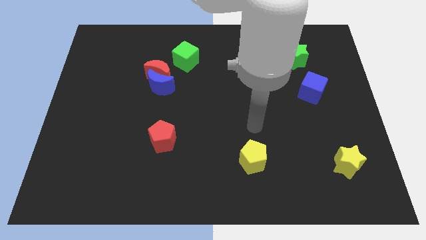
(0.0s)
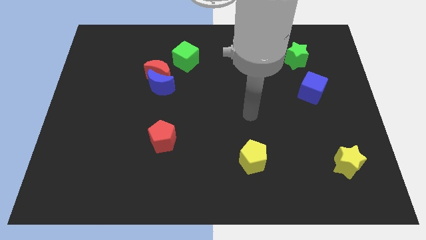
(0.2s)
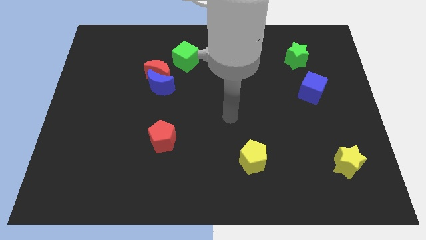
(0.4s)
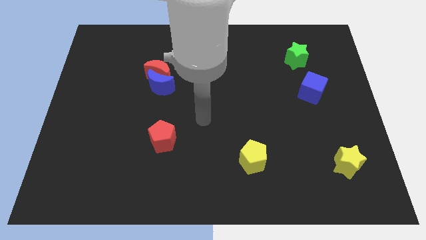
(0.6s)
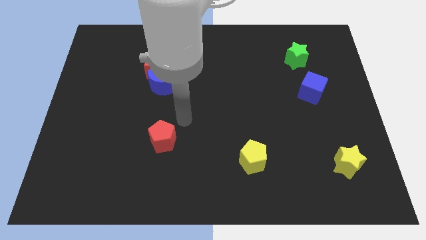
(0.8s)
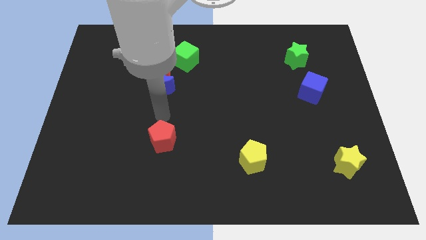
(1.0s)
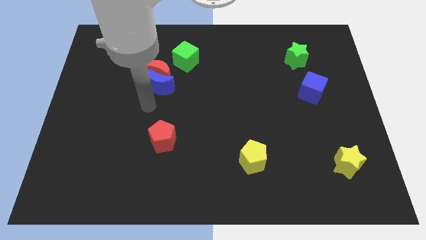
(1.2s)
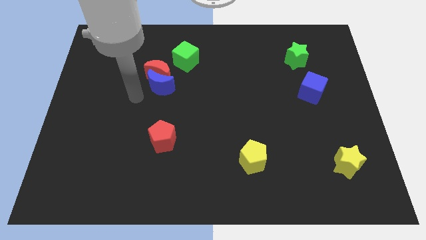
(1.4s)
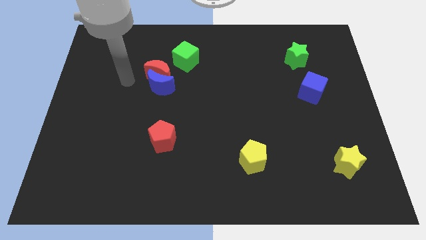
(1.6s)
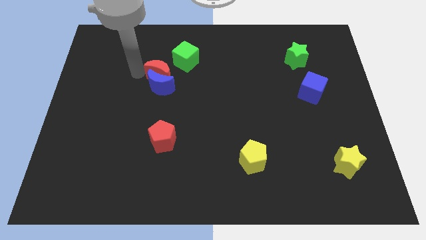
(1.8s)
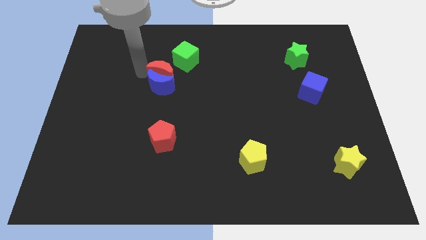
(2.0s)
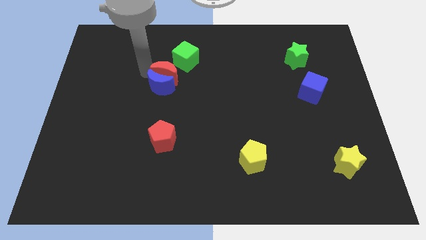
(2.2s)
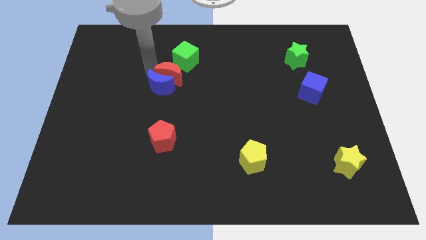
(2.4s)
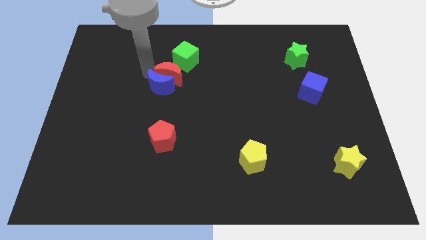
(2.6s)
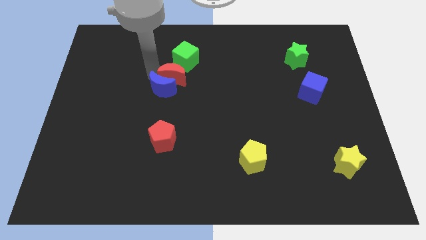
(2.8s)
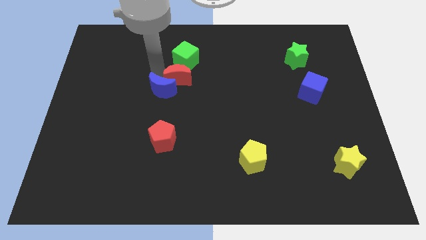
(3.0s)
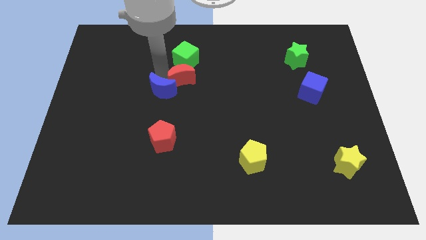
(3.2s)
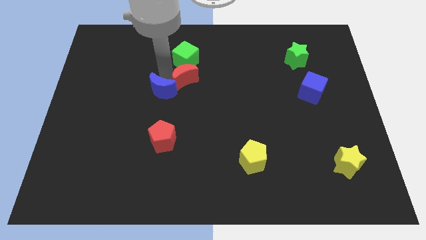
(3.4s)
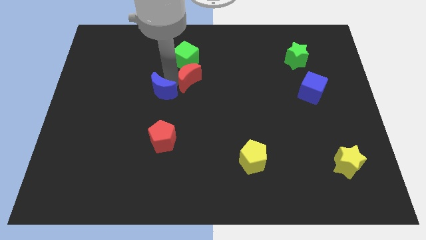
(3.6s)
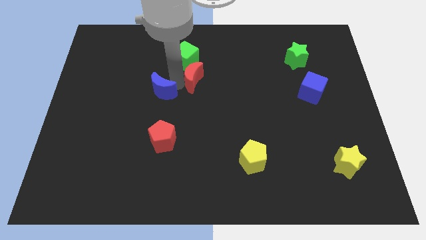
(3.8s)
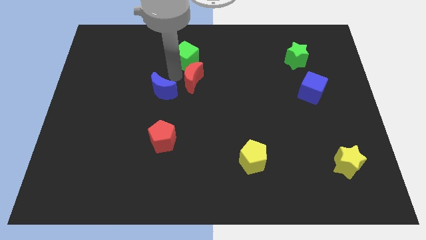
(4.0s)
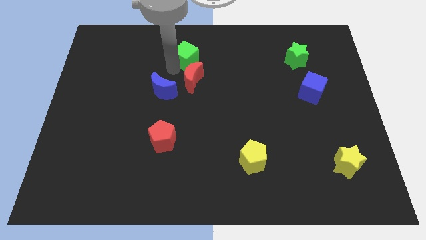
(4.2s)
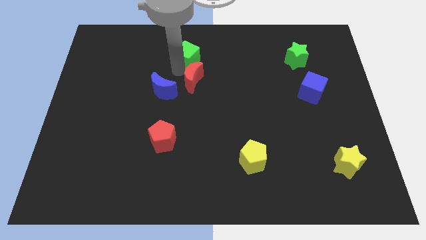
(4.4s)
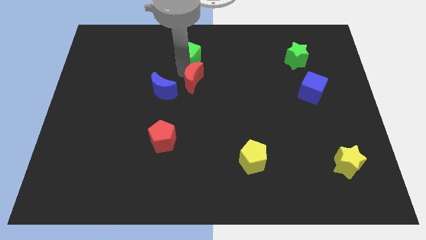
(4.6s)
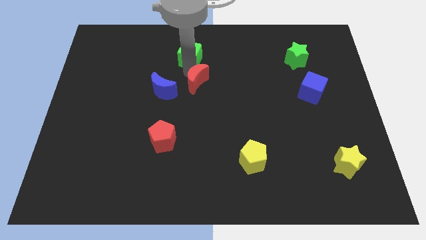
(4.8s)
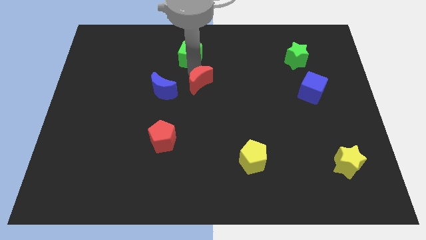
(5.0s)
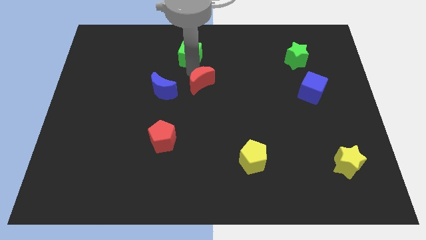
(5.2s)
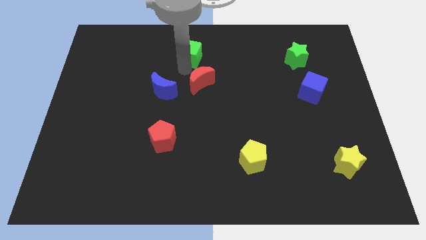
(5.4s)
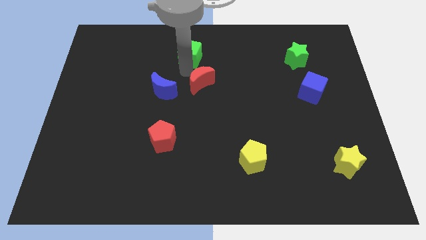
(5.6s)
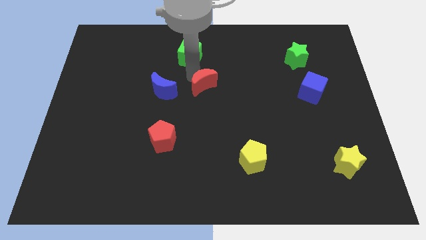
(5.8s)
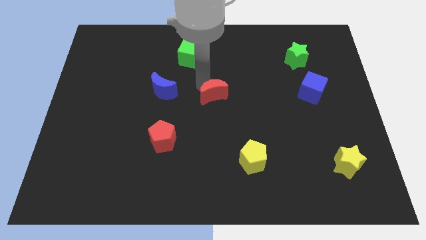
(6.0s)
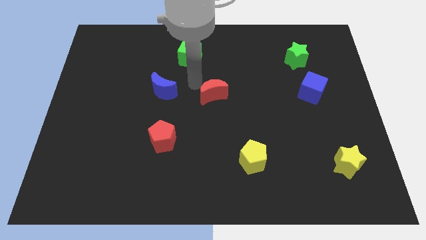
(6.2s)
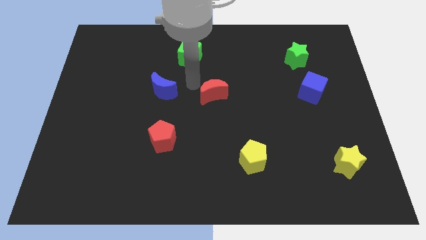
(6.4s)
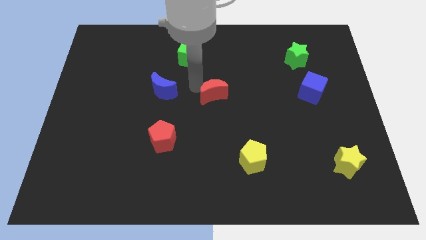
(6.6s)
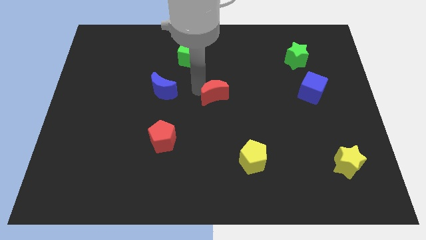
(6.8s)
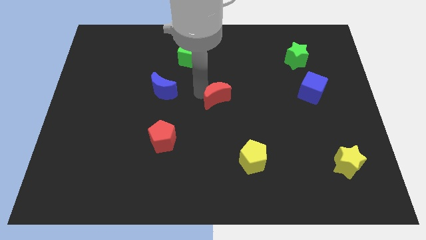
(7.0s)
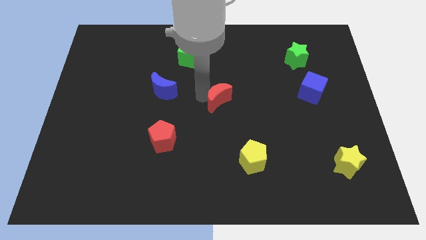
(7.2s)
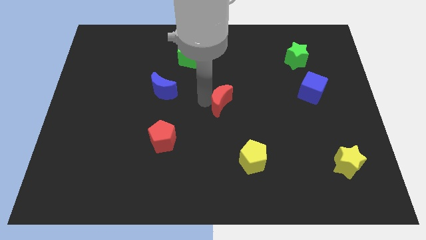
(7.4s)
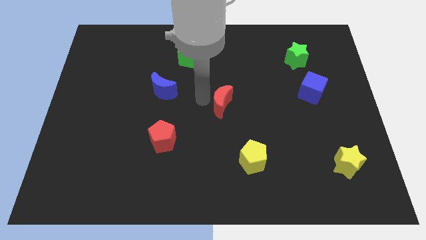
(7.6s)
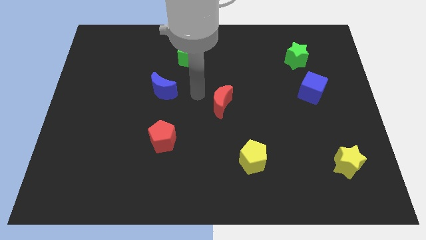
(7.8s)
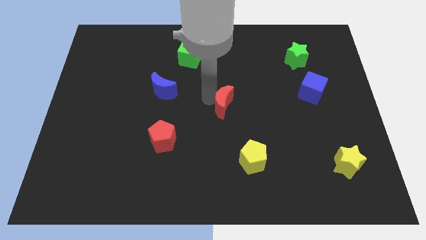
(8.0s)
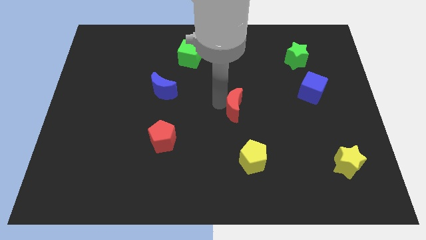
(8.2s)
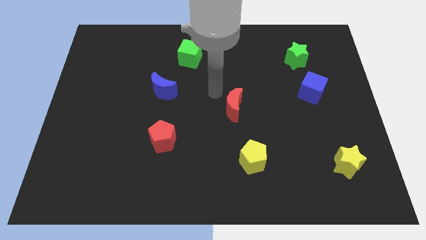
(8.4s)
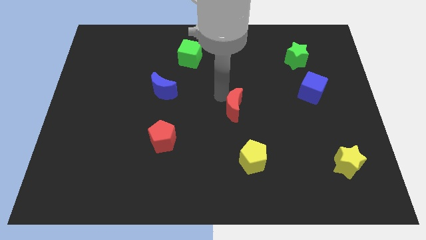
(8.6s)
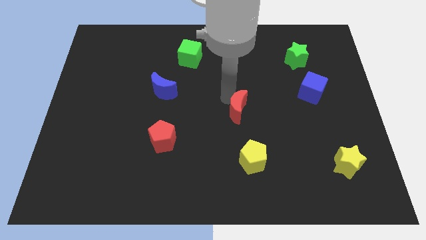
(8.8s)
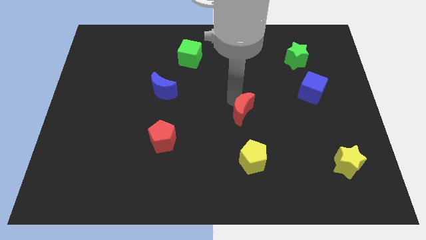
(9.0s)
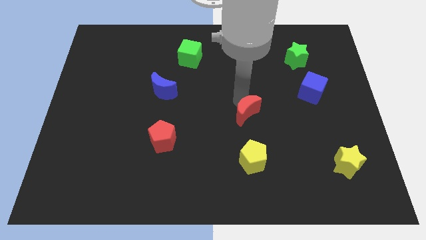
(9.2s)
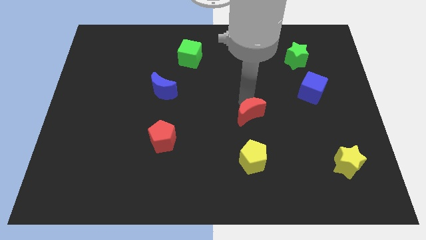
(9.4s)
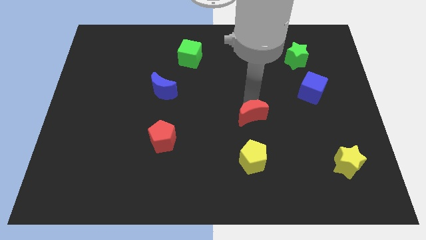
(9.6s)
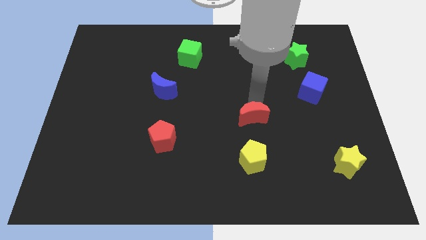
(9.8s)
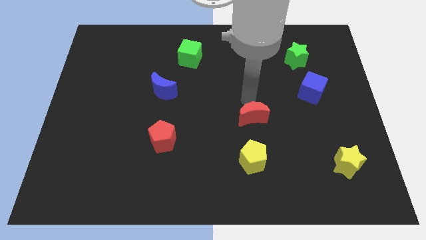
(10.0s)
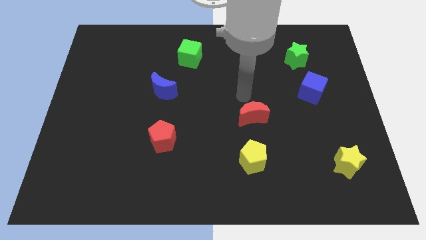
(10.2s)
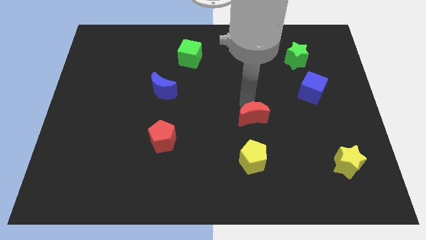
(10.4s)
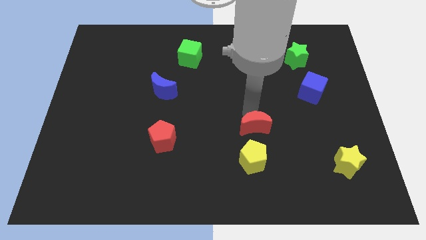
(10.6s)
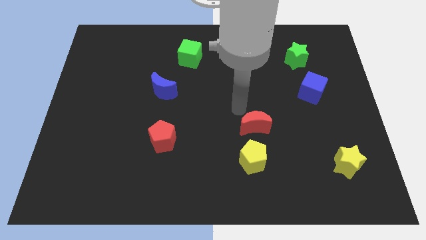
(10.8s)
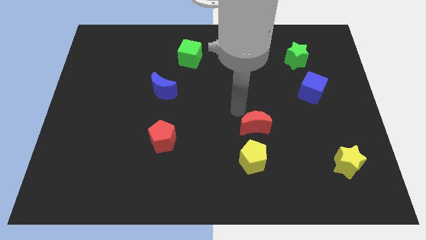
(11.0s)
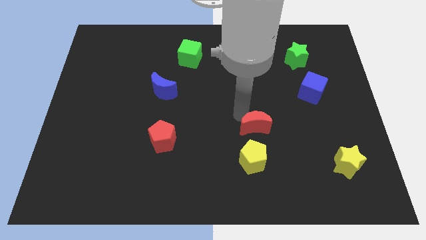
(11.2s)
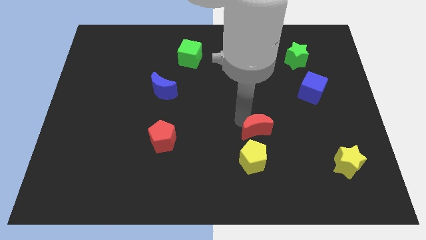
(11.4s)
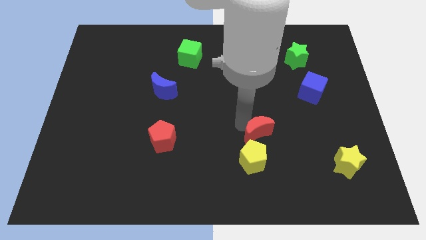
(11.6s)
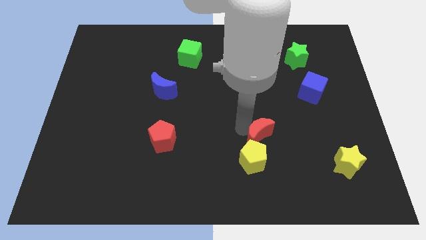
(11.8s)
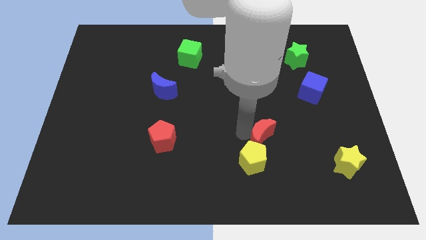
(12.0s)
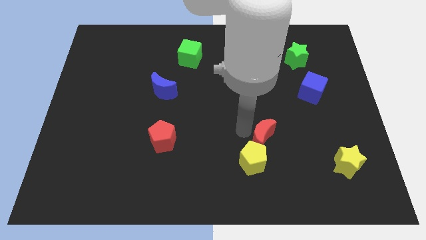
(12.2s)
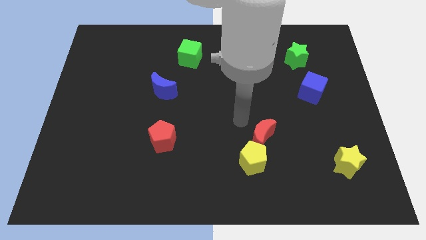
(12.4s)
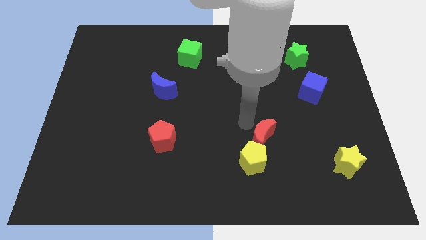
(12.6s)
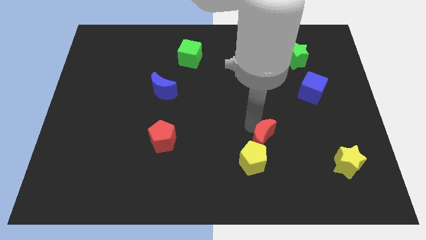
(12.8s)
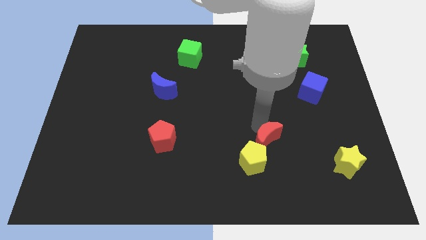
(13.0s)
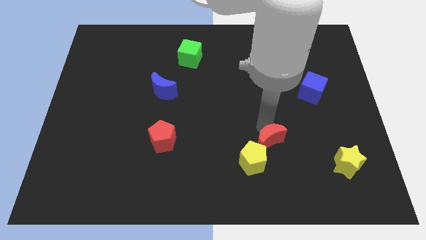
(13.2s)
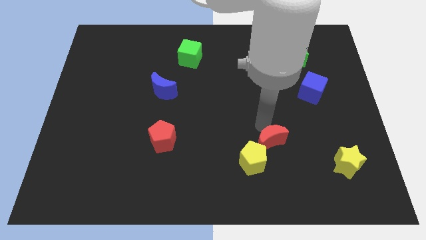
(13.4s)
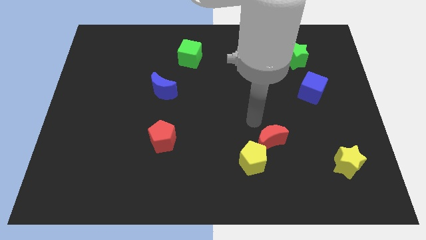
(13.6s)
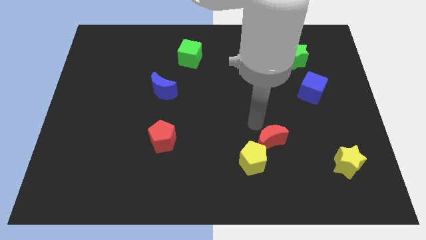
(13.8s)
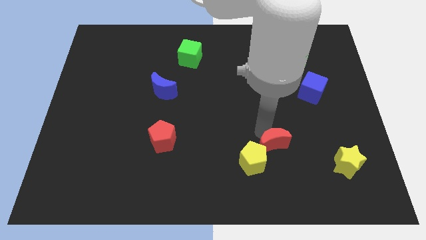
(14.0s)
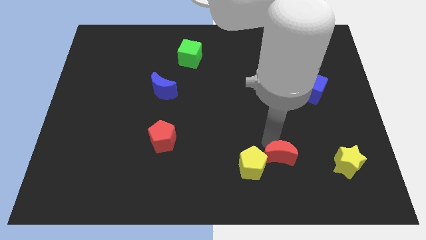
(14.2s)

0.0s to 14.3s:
put the red moon left of the yellow star
